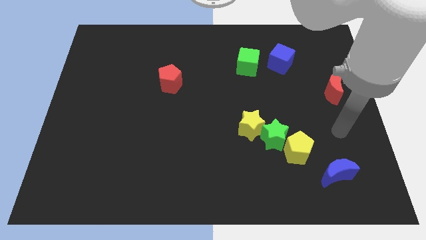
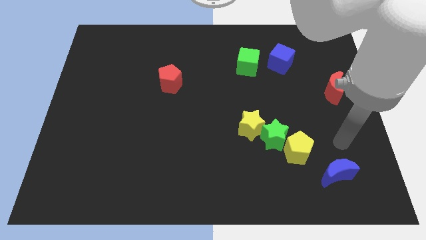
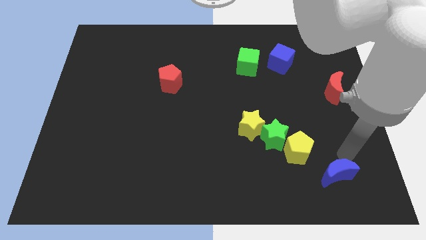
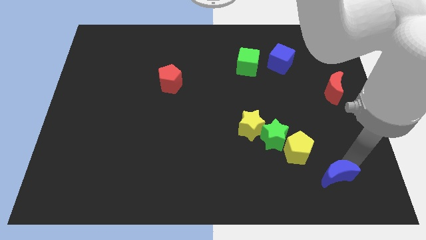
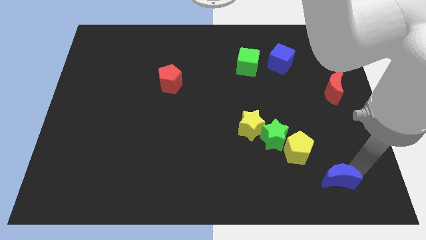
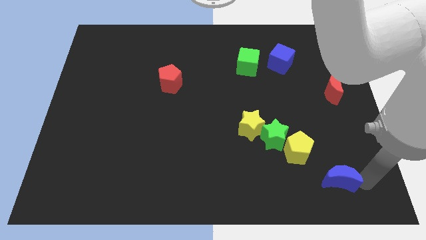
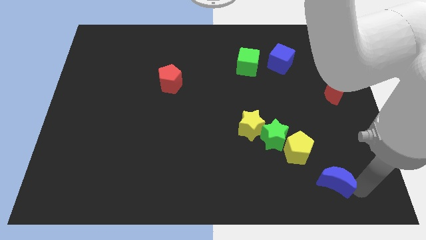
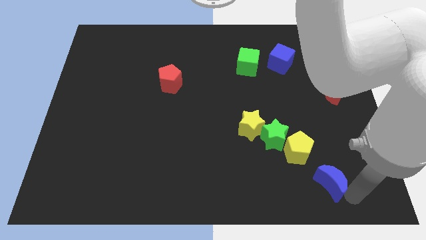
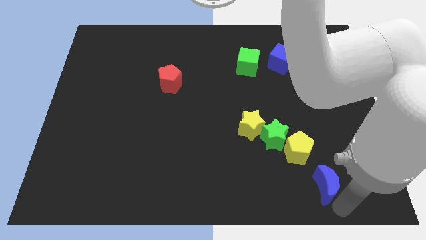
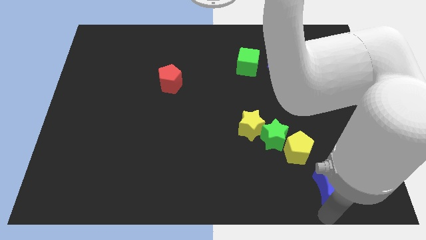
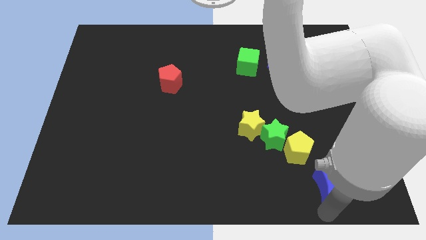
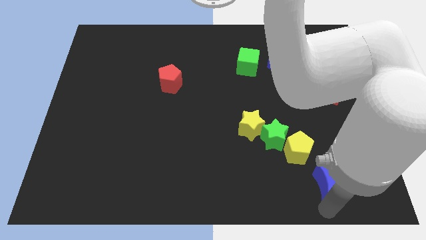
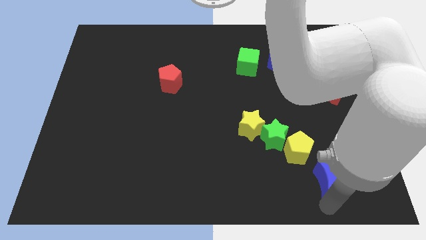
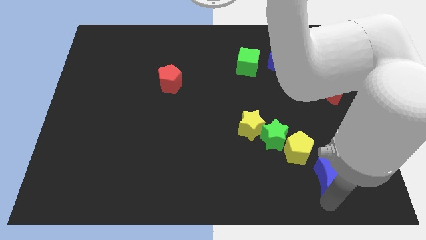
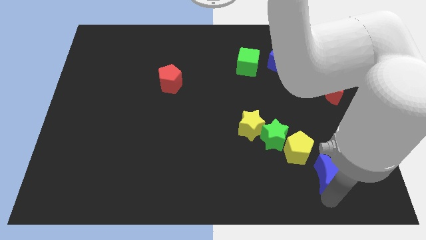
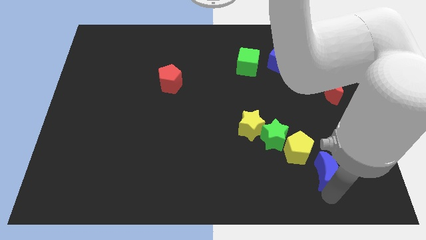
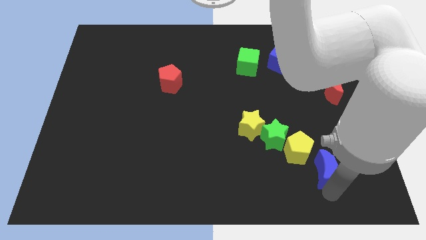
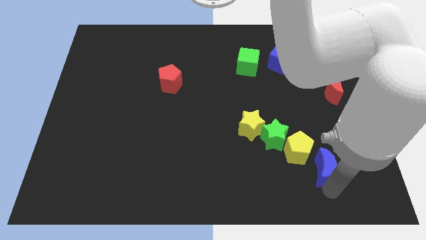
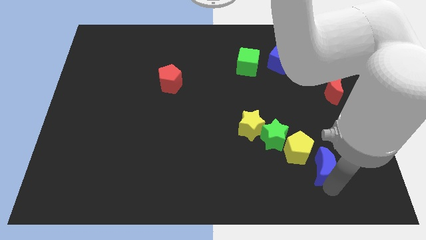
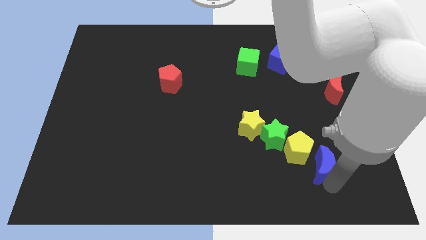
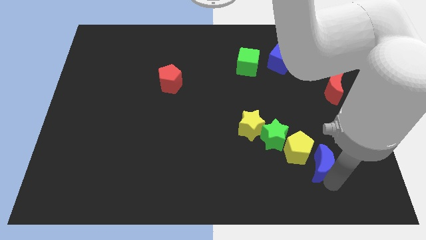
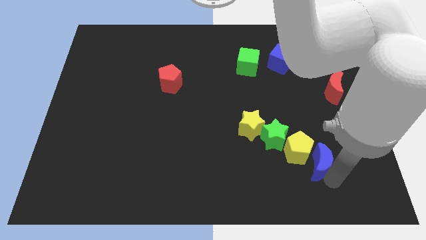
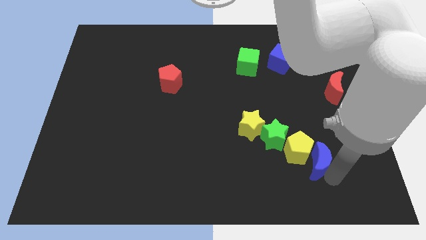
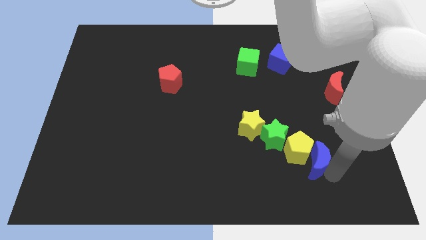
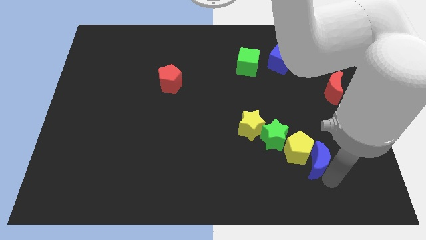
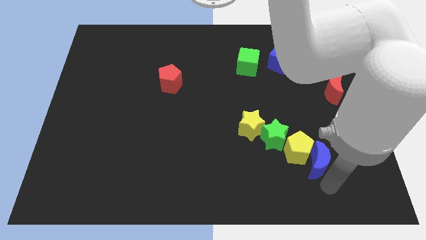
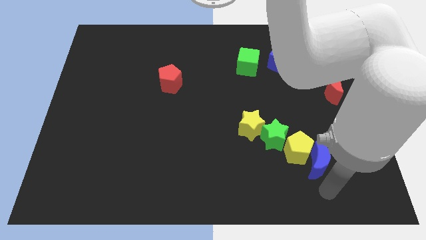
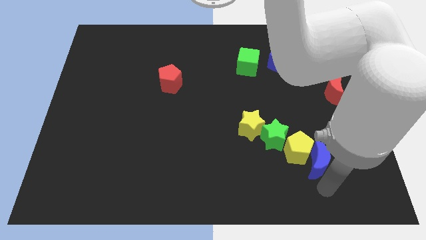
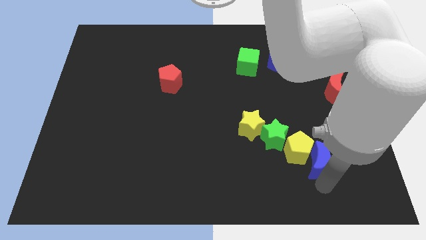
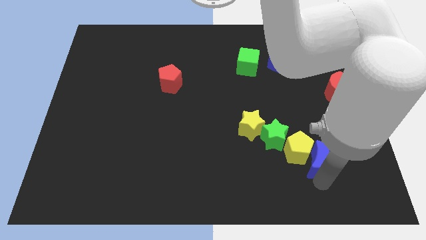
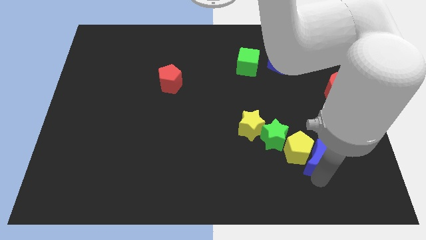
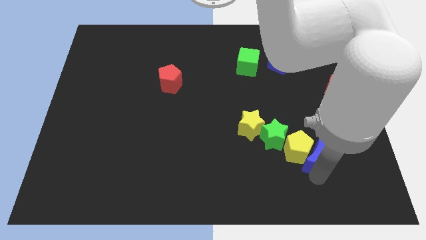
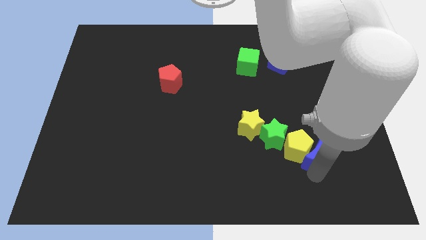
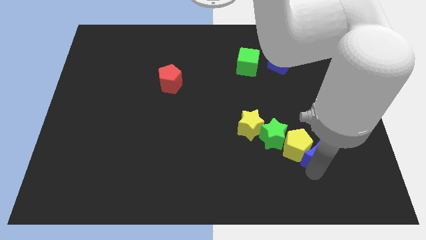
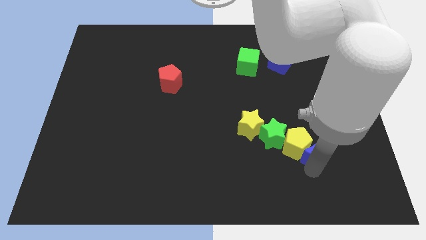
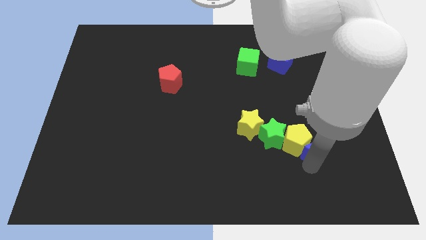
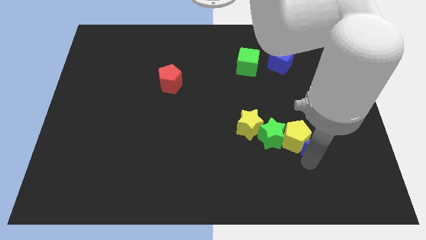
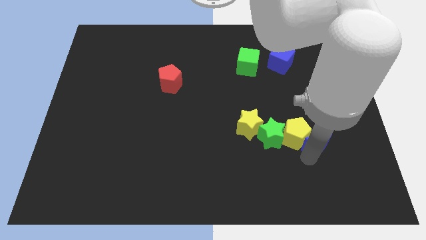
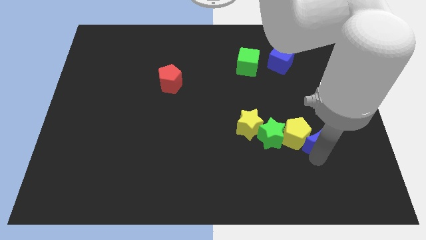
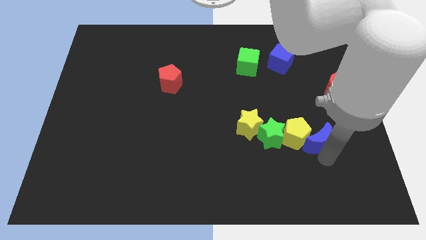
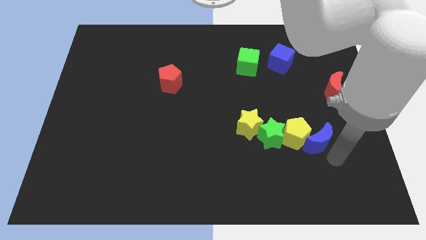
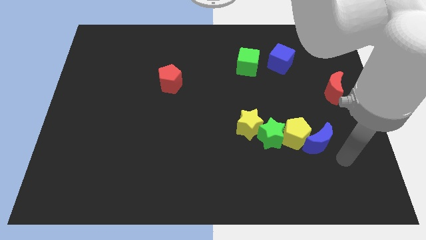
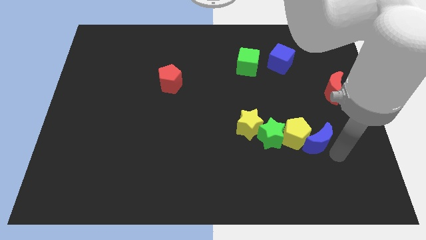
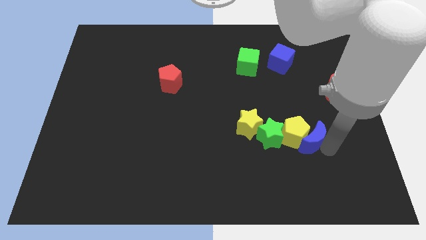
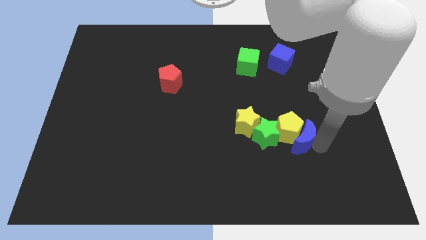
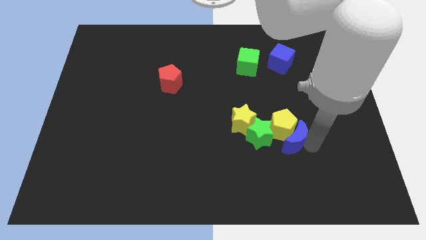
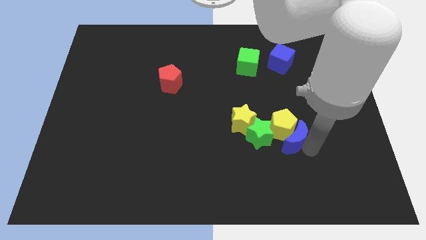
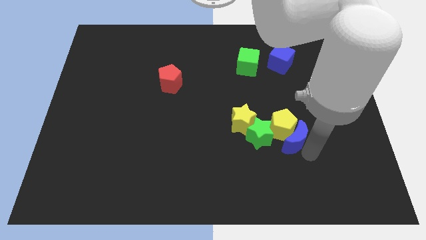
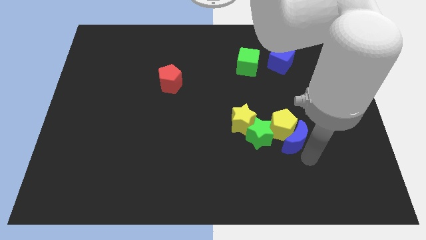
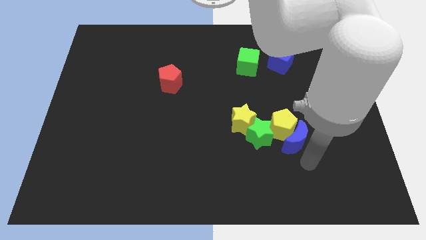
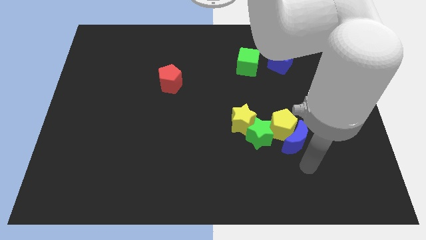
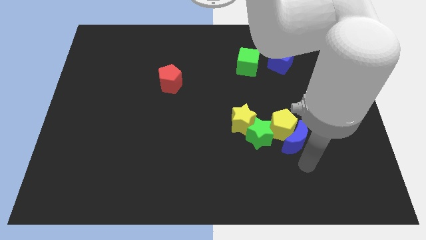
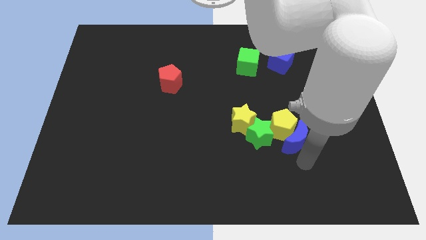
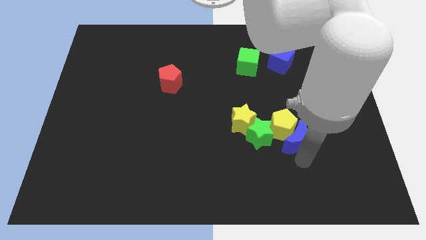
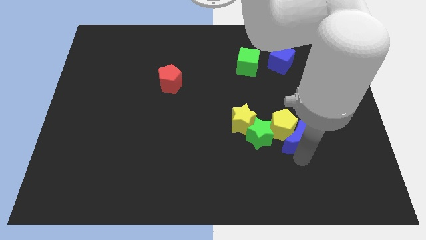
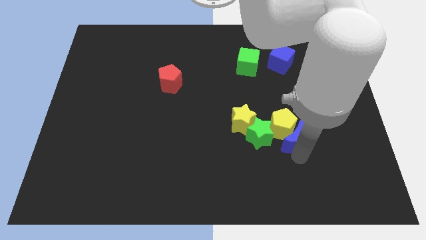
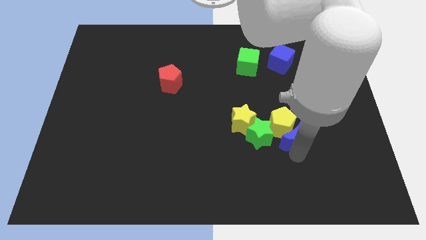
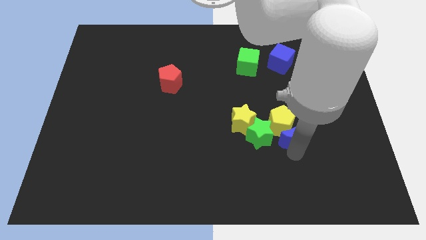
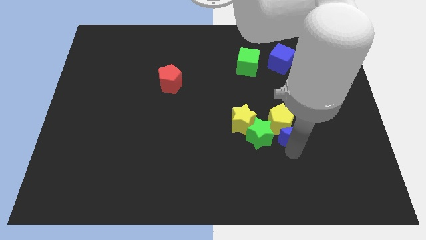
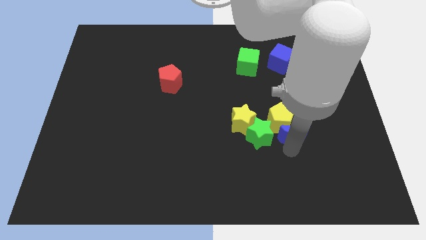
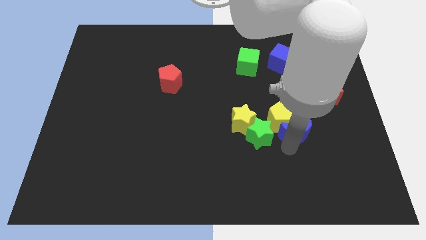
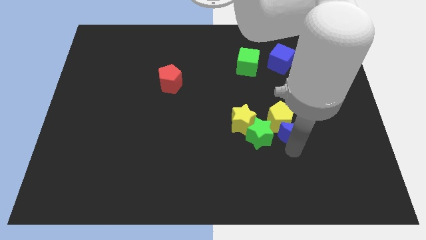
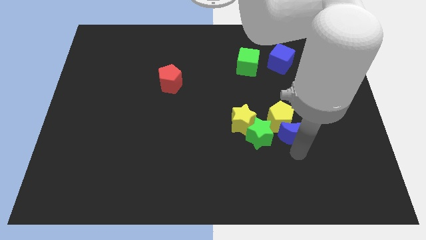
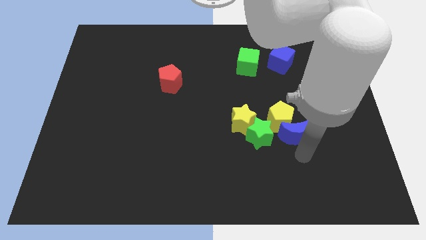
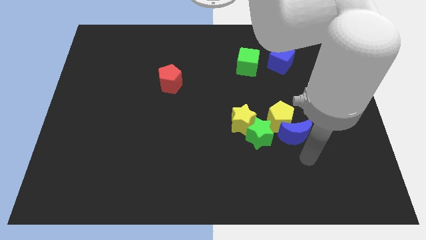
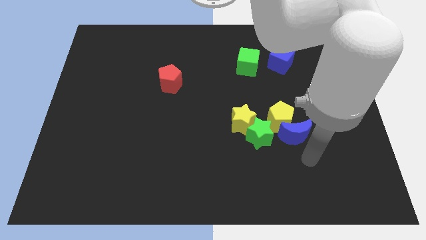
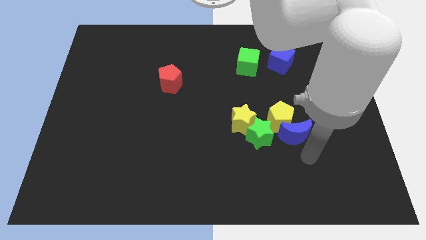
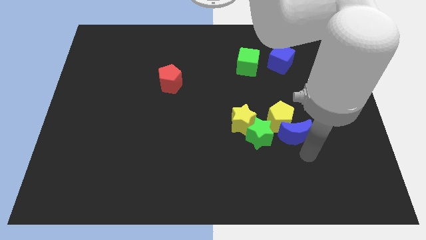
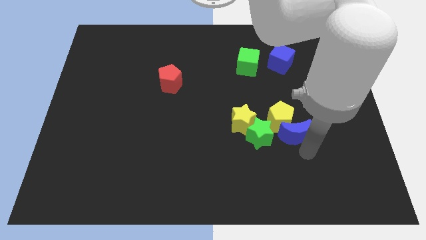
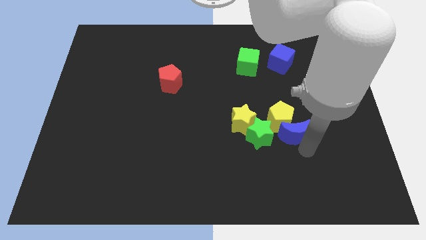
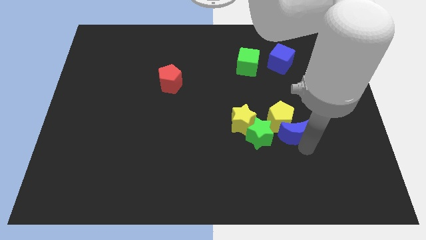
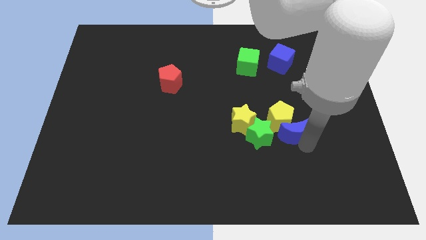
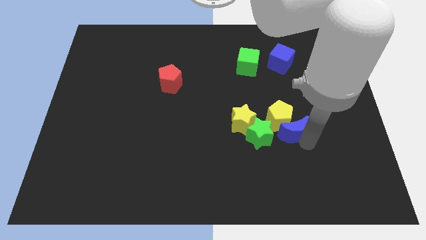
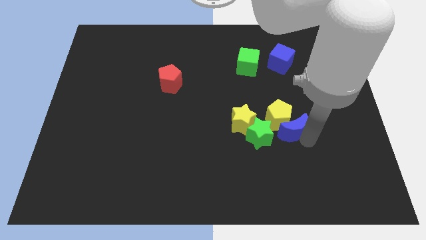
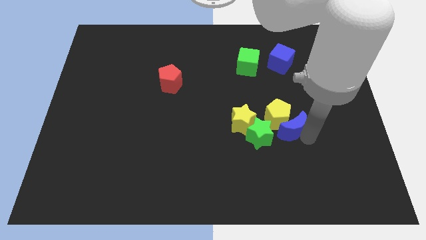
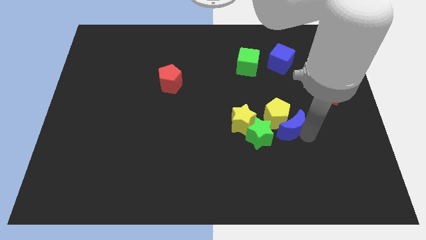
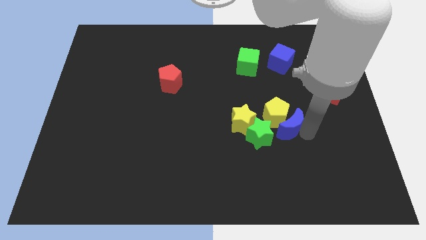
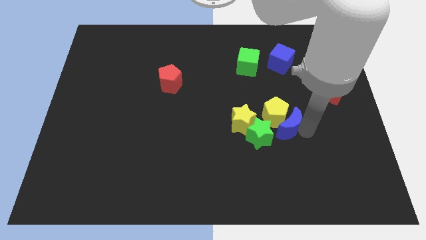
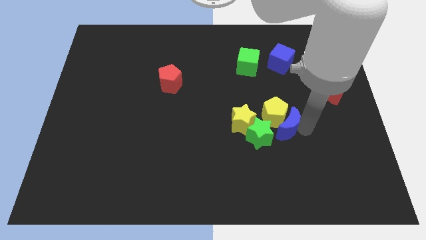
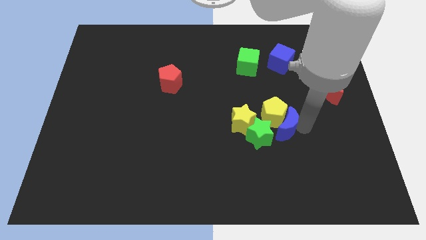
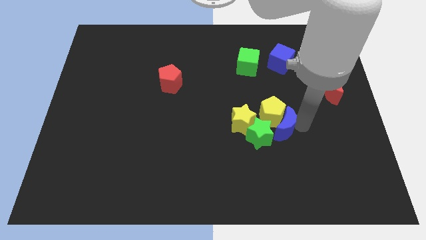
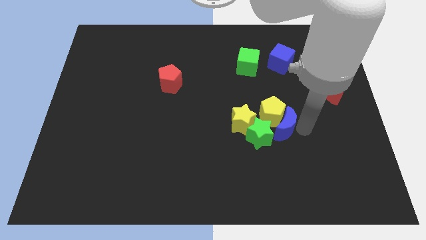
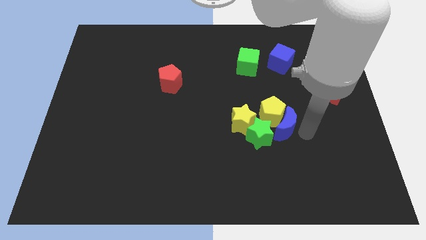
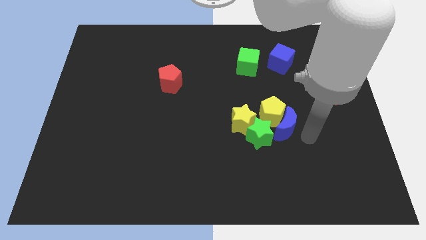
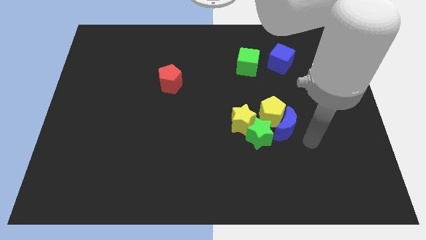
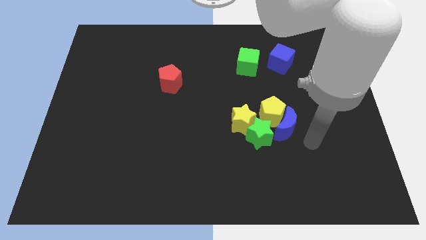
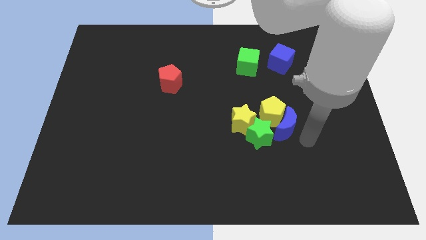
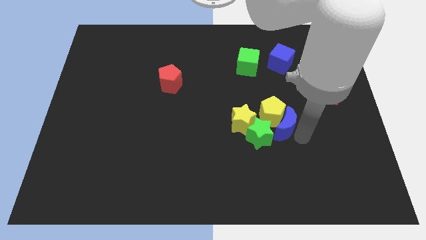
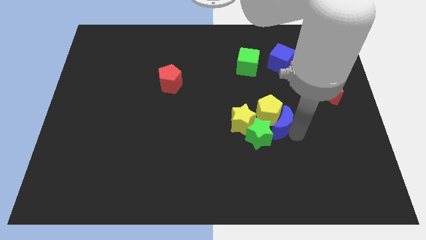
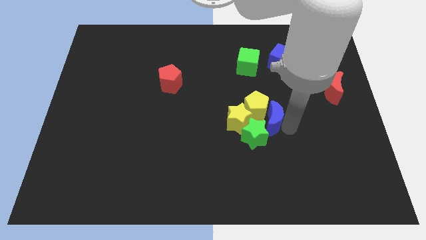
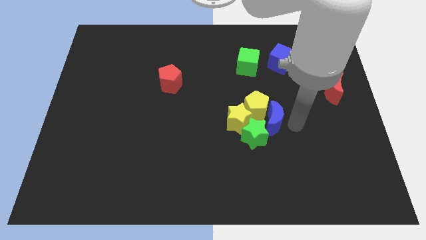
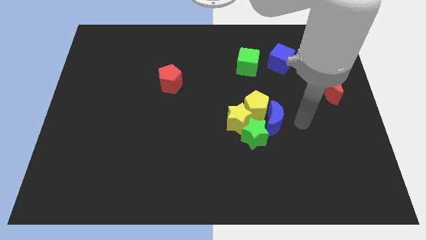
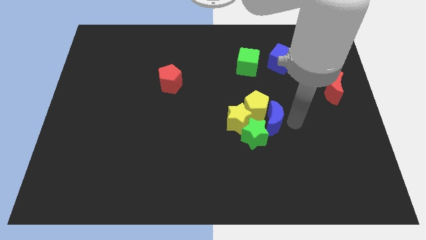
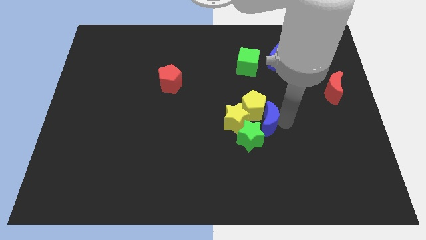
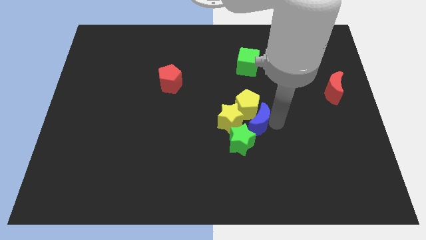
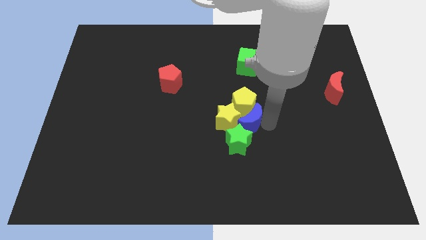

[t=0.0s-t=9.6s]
push the blue moon to the yellow star
